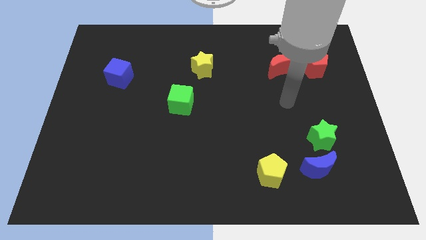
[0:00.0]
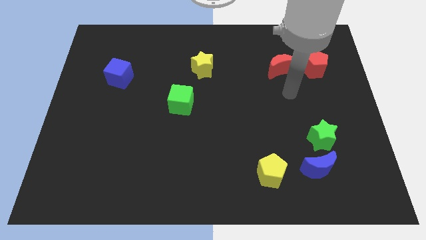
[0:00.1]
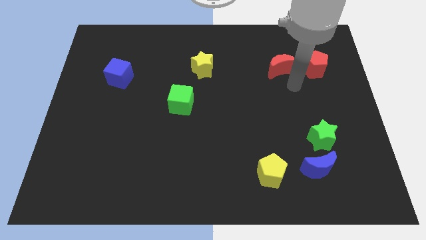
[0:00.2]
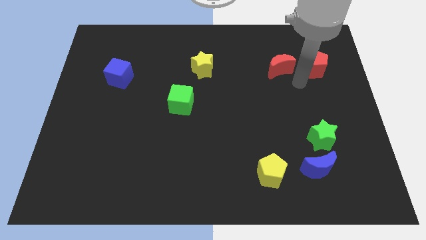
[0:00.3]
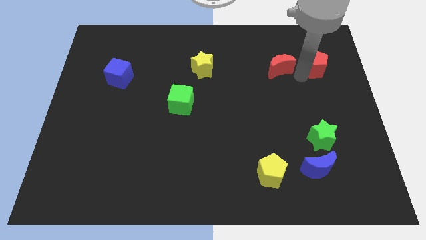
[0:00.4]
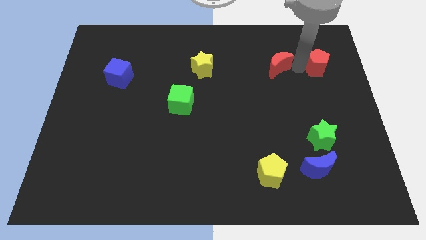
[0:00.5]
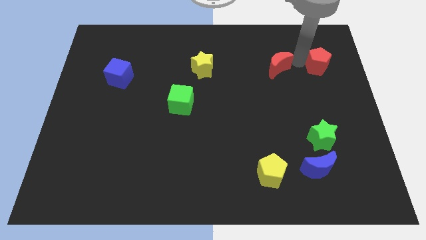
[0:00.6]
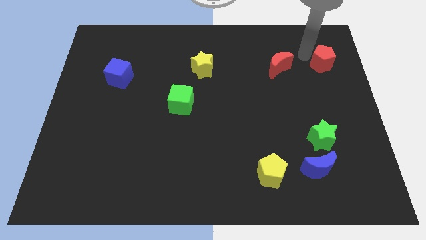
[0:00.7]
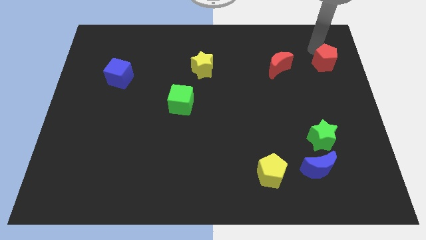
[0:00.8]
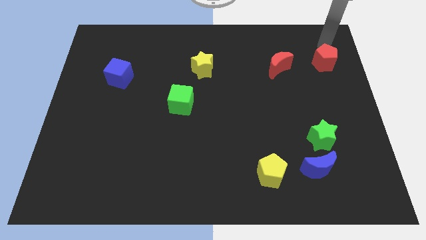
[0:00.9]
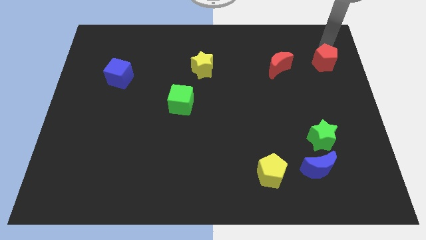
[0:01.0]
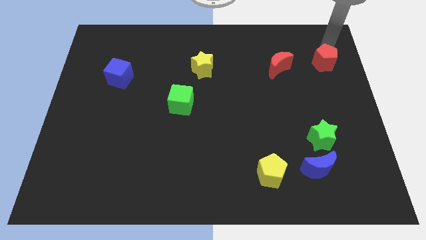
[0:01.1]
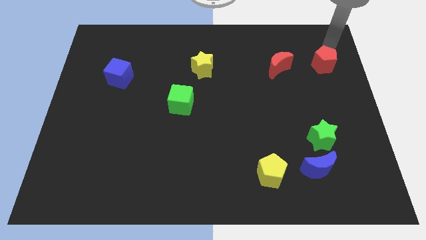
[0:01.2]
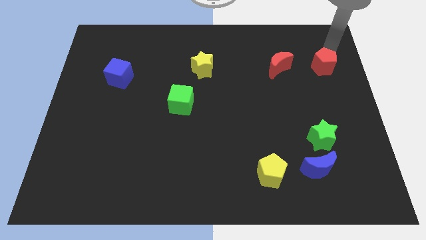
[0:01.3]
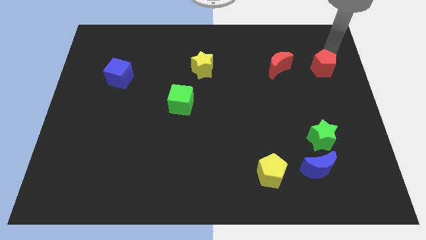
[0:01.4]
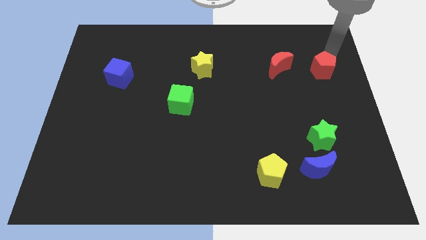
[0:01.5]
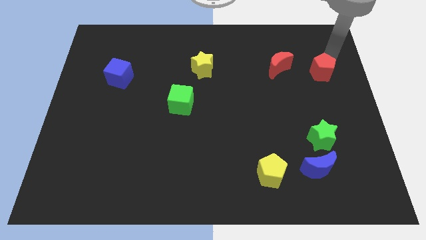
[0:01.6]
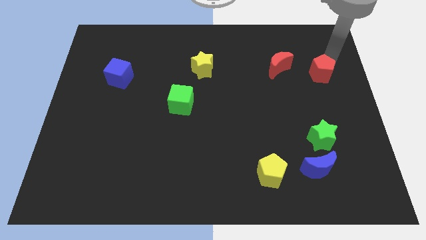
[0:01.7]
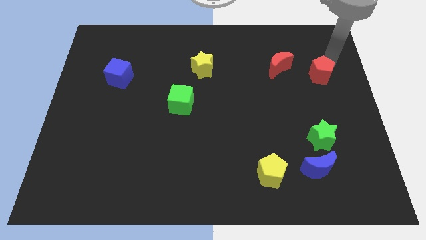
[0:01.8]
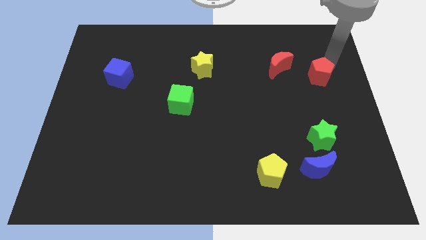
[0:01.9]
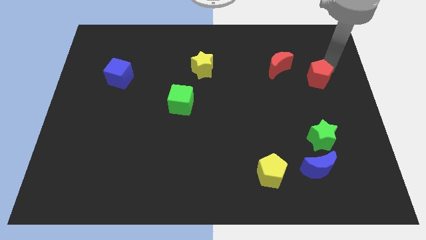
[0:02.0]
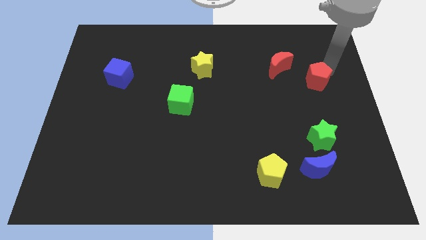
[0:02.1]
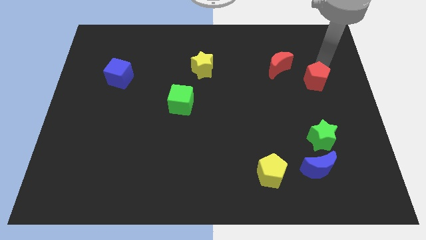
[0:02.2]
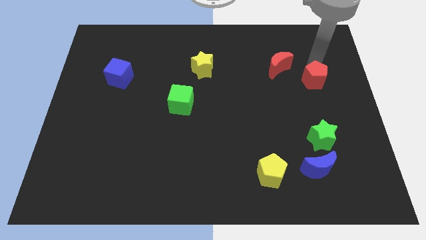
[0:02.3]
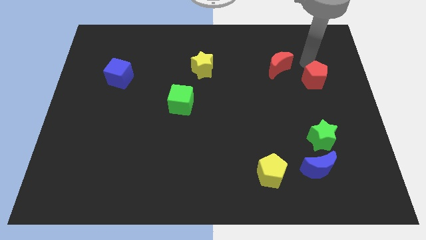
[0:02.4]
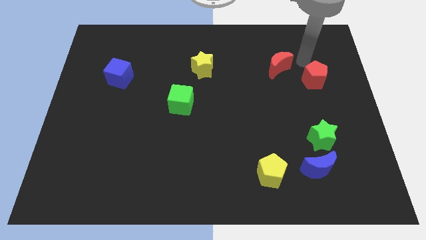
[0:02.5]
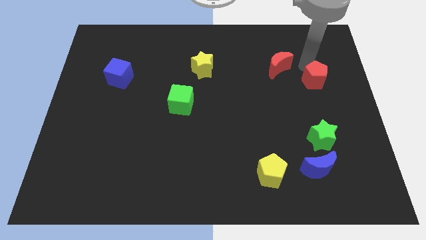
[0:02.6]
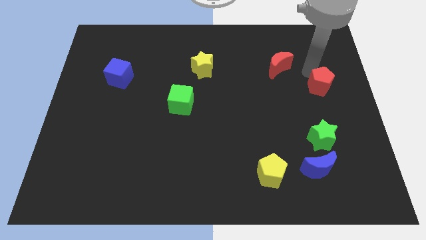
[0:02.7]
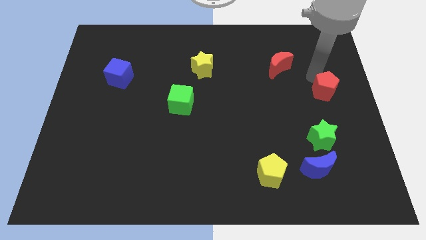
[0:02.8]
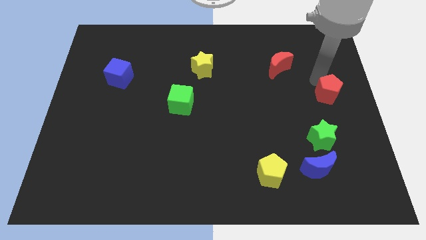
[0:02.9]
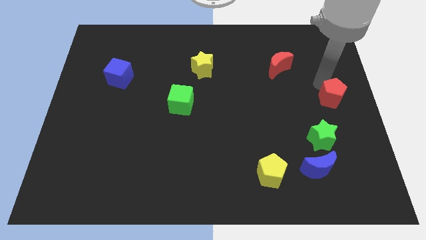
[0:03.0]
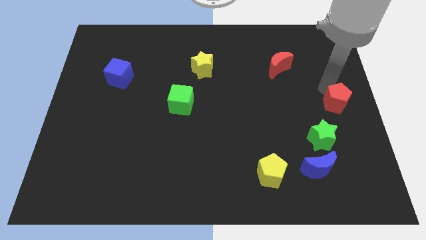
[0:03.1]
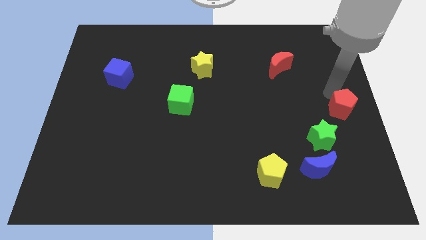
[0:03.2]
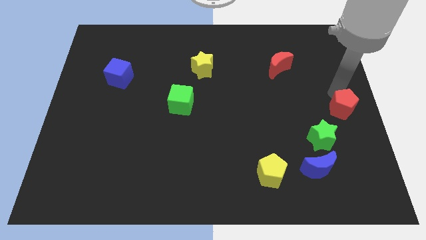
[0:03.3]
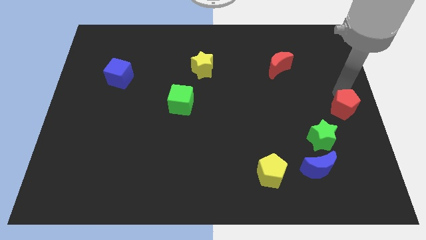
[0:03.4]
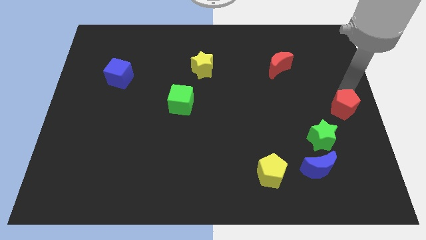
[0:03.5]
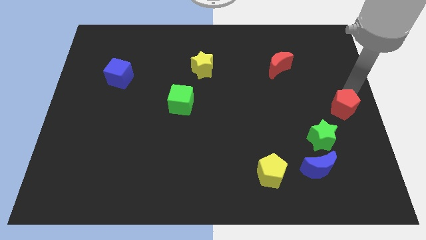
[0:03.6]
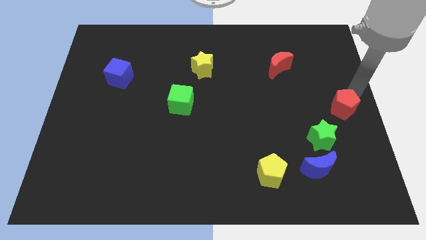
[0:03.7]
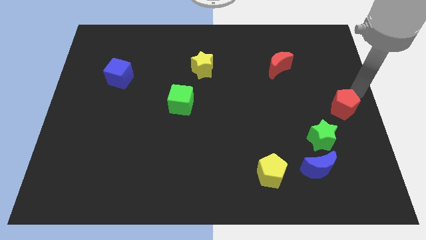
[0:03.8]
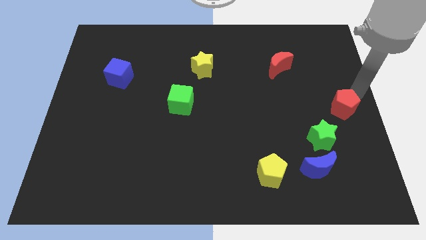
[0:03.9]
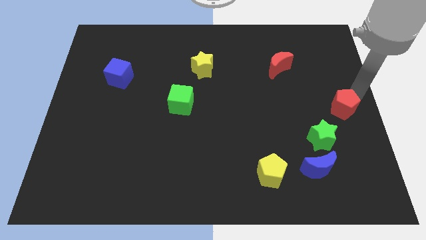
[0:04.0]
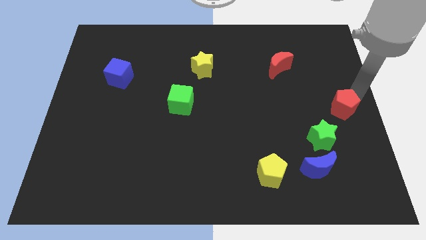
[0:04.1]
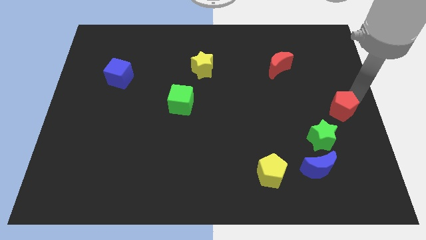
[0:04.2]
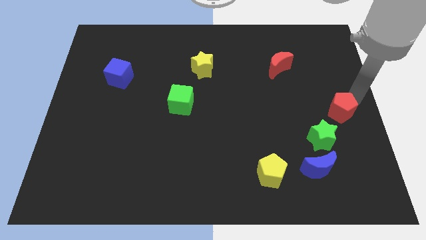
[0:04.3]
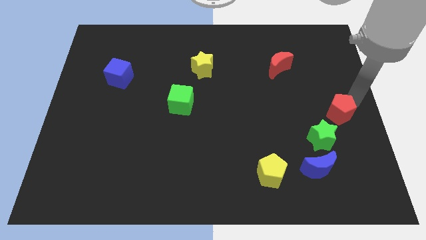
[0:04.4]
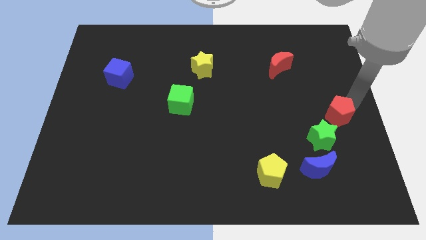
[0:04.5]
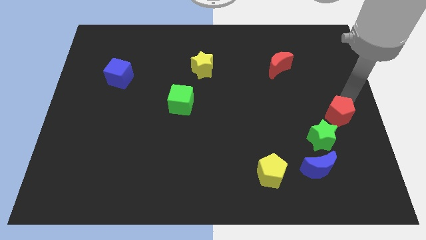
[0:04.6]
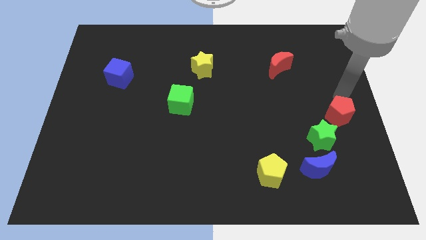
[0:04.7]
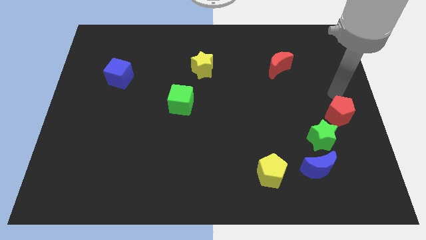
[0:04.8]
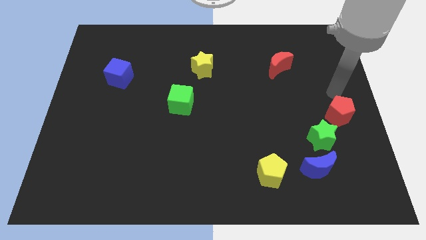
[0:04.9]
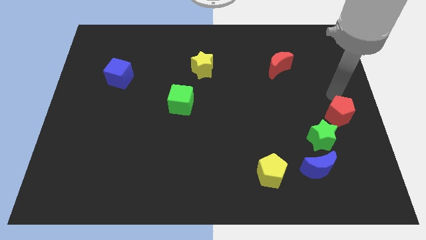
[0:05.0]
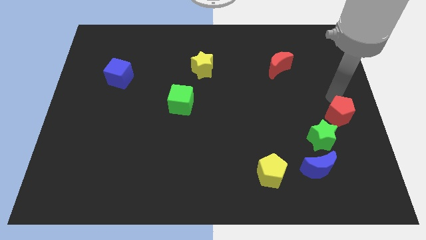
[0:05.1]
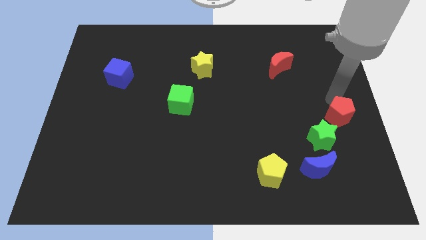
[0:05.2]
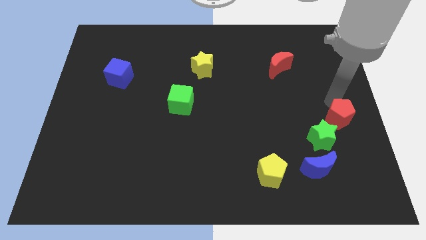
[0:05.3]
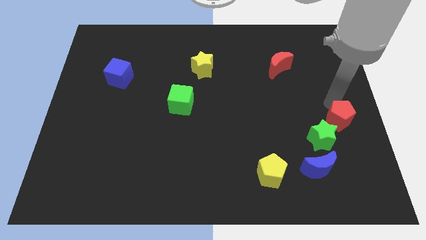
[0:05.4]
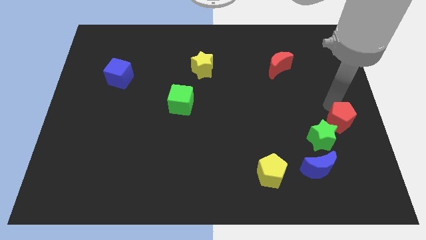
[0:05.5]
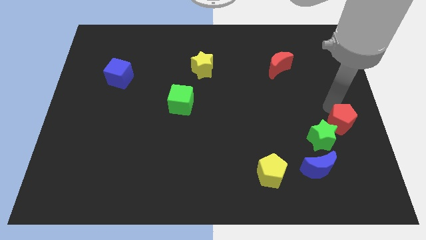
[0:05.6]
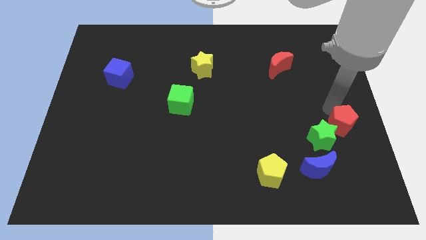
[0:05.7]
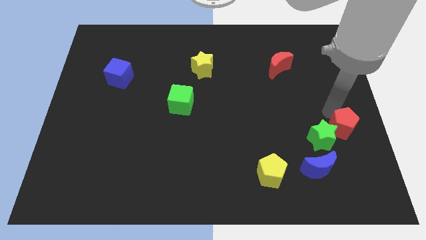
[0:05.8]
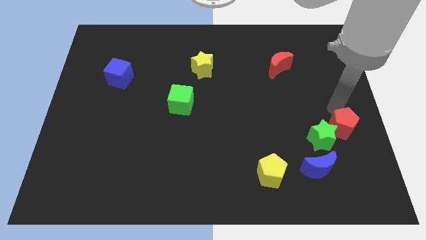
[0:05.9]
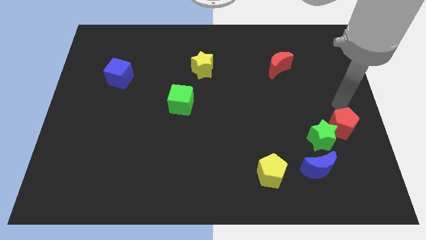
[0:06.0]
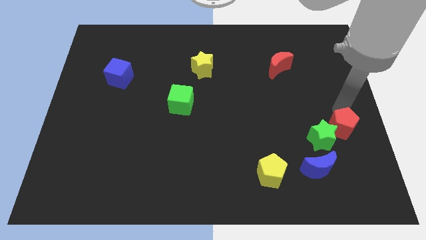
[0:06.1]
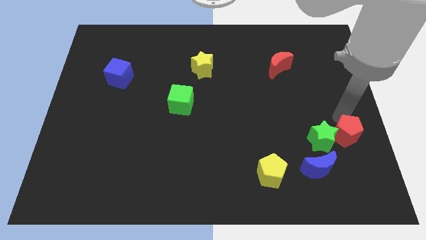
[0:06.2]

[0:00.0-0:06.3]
slide the red pentagon down

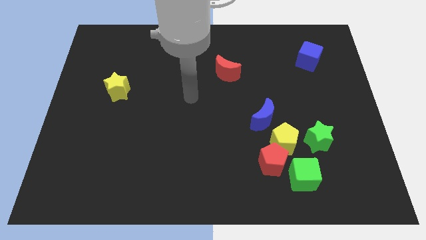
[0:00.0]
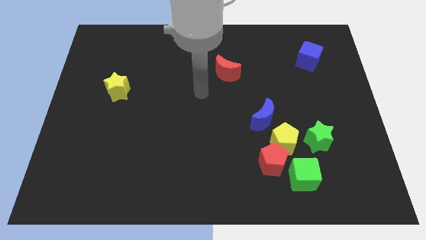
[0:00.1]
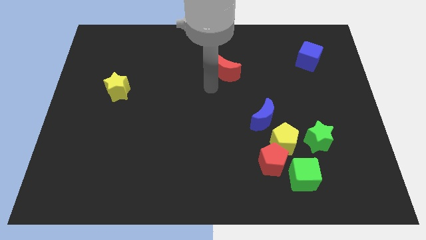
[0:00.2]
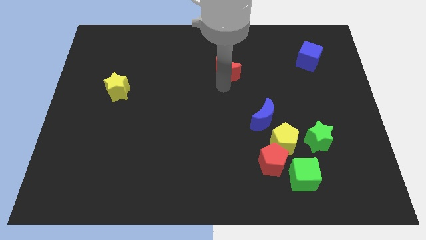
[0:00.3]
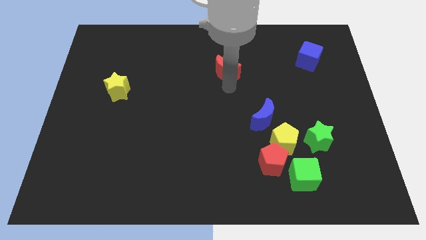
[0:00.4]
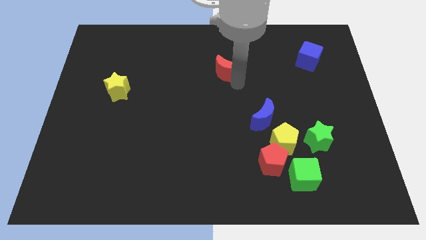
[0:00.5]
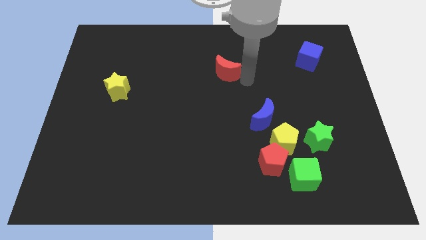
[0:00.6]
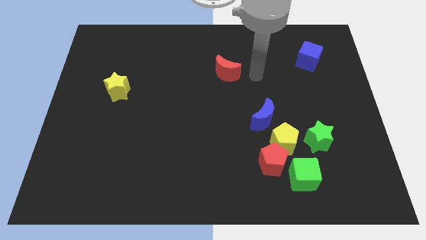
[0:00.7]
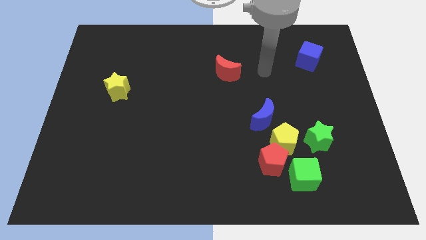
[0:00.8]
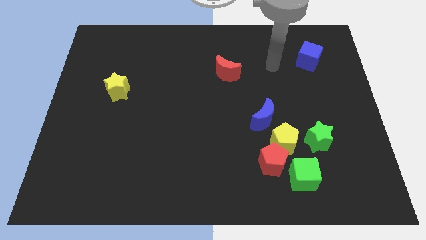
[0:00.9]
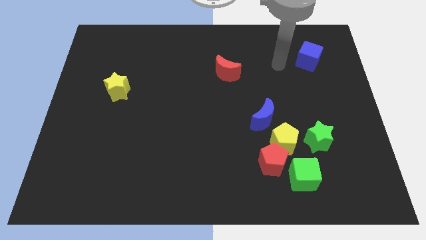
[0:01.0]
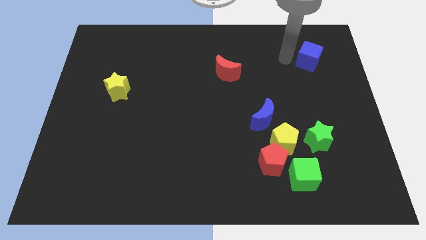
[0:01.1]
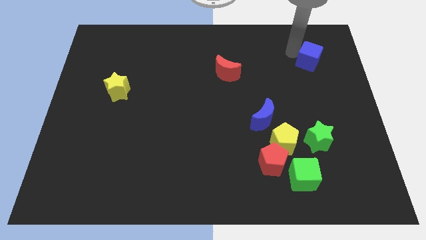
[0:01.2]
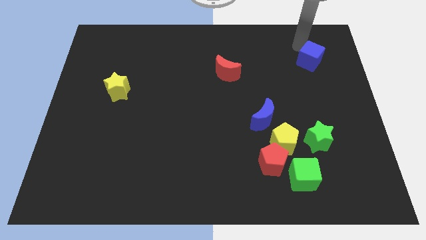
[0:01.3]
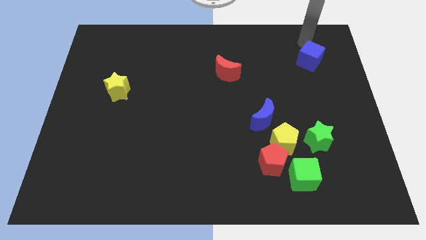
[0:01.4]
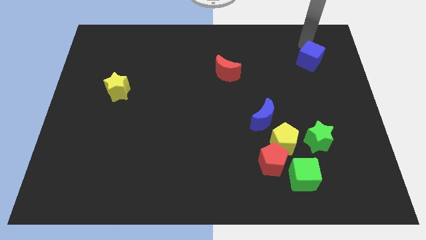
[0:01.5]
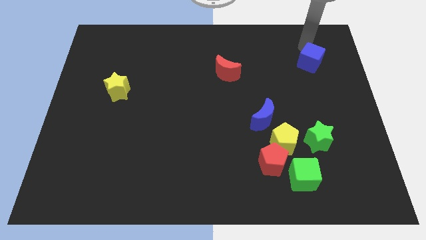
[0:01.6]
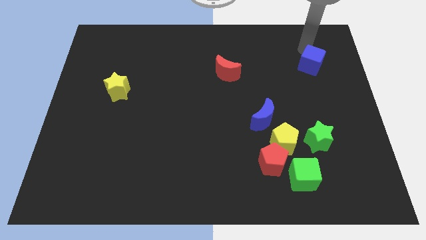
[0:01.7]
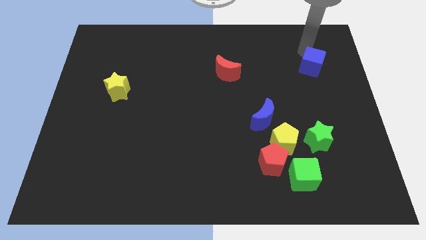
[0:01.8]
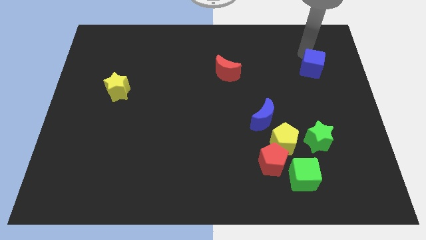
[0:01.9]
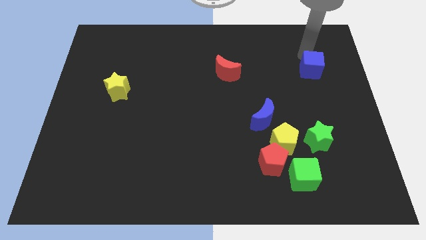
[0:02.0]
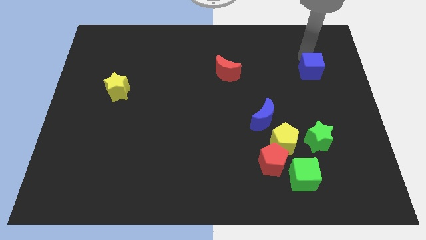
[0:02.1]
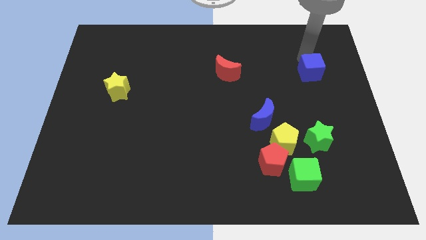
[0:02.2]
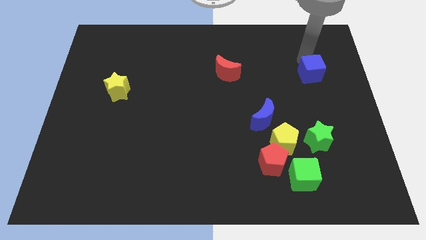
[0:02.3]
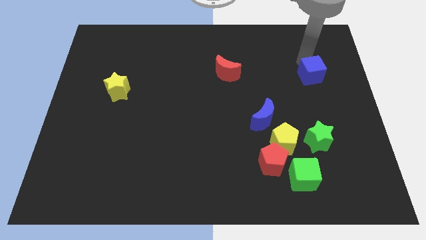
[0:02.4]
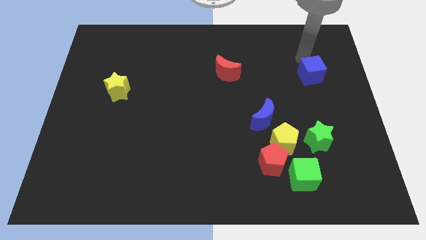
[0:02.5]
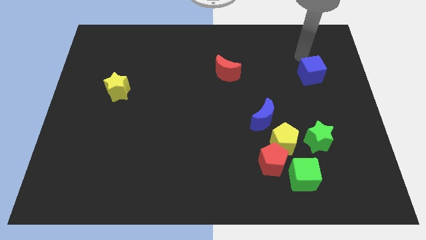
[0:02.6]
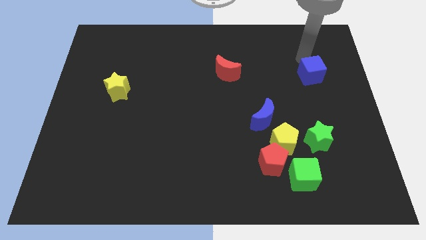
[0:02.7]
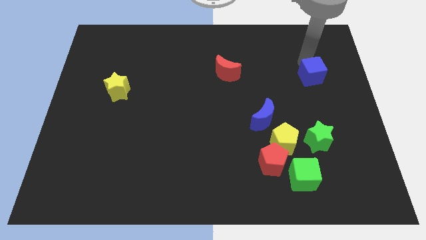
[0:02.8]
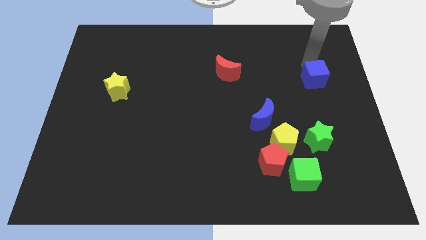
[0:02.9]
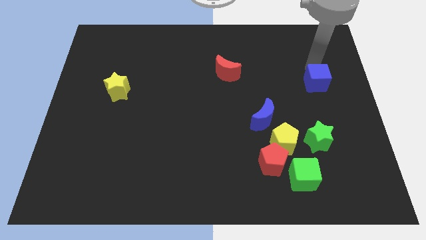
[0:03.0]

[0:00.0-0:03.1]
slide the blue cube somewhat downwards
